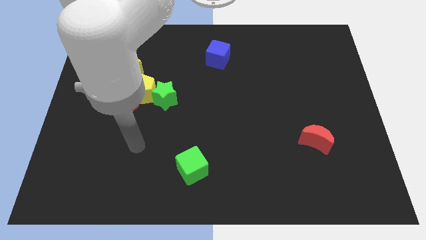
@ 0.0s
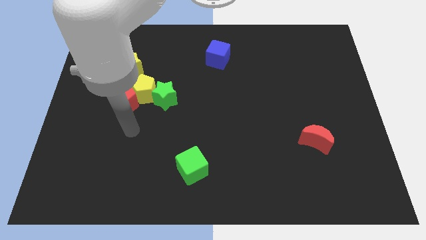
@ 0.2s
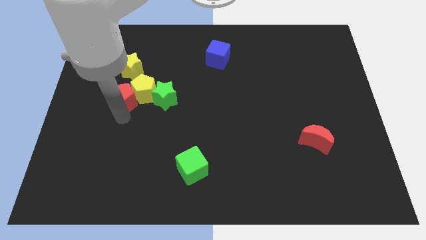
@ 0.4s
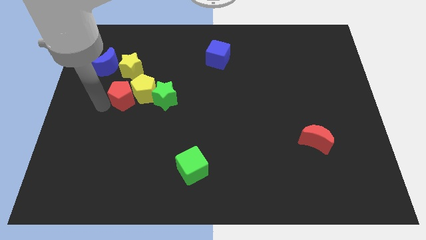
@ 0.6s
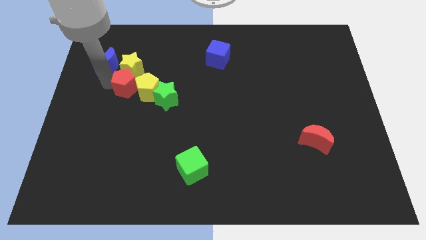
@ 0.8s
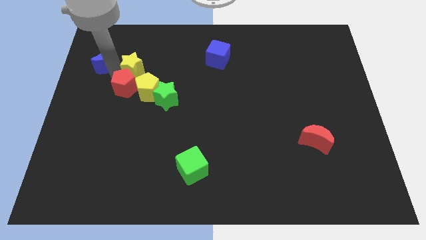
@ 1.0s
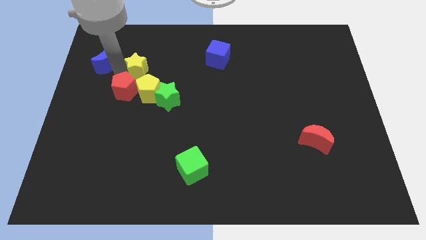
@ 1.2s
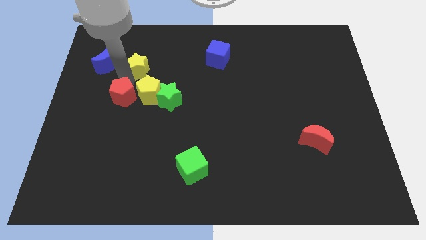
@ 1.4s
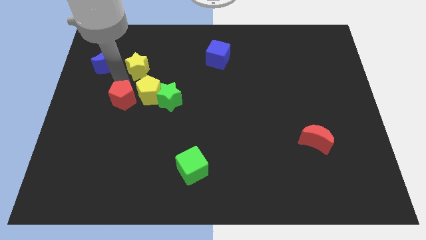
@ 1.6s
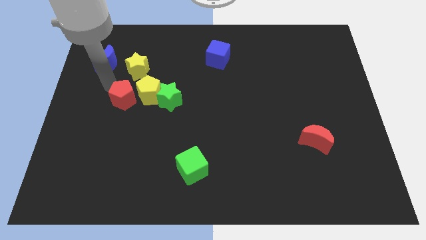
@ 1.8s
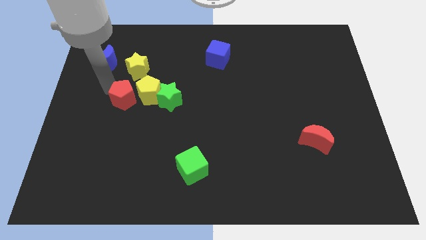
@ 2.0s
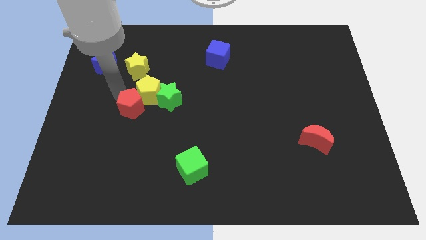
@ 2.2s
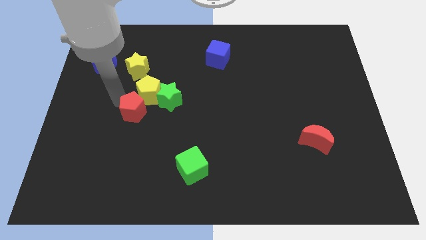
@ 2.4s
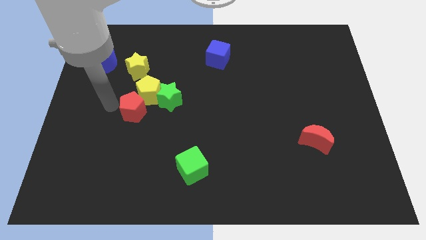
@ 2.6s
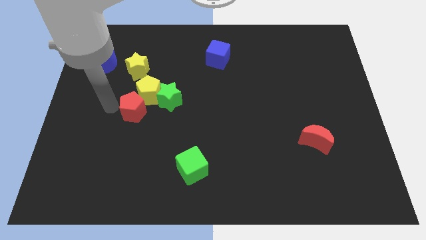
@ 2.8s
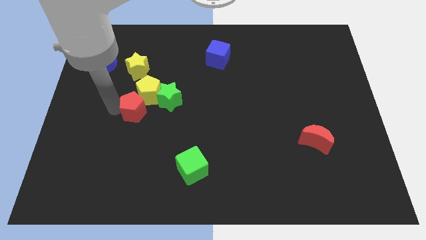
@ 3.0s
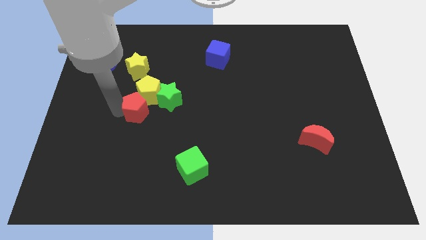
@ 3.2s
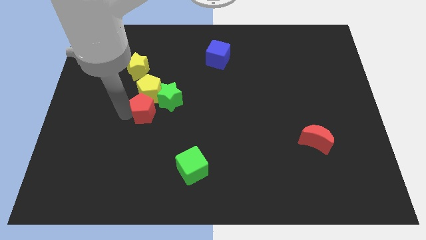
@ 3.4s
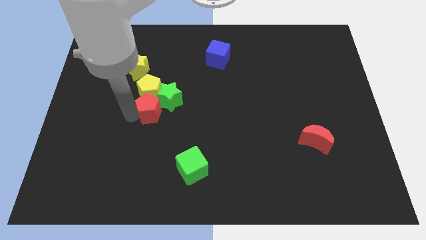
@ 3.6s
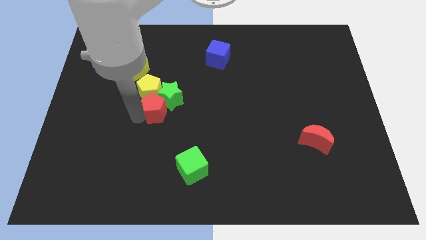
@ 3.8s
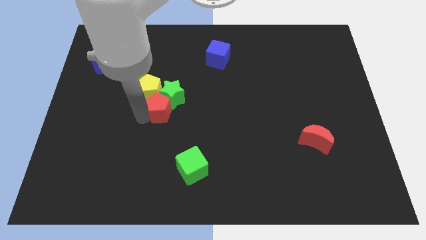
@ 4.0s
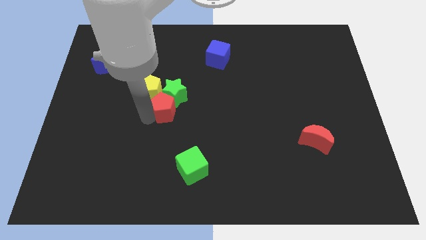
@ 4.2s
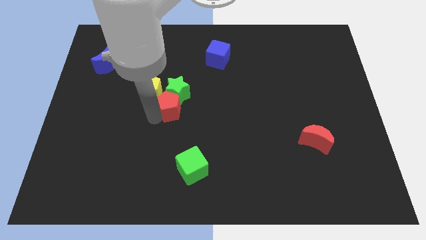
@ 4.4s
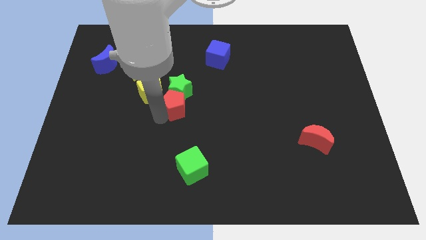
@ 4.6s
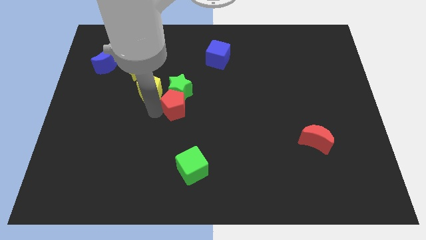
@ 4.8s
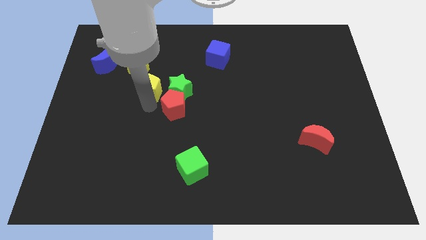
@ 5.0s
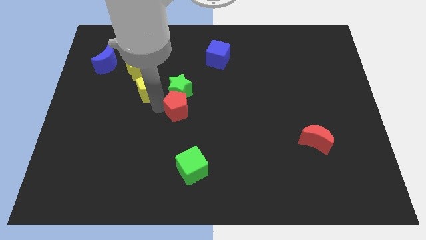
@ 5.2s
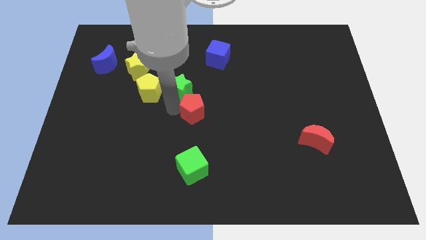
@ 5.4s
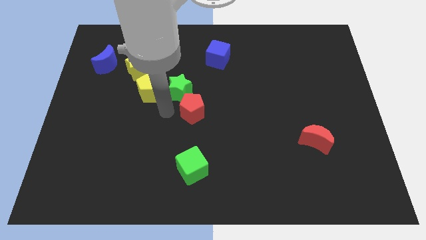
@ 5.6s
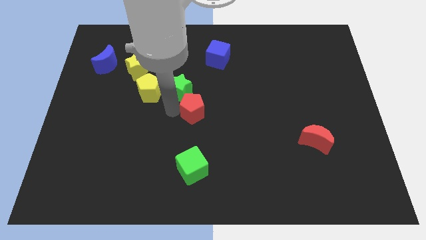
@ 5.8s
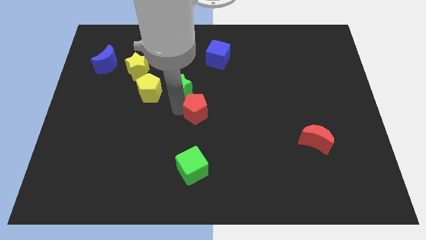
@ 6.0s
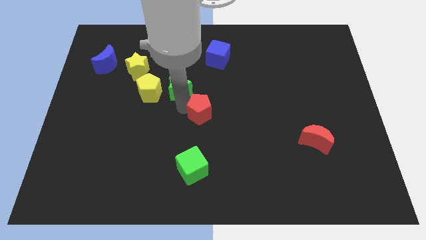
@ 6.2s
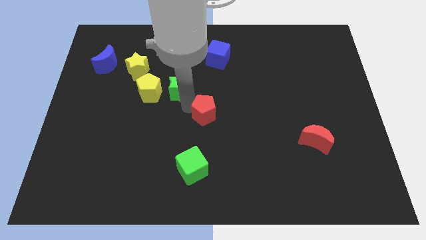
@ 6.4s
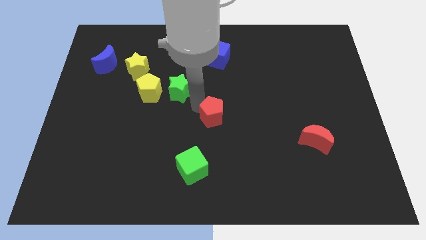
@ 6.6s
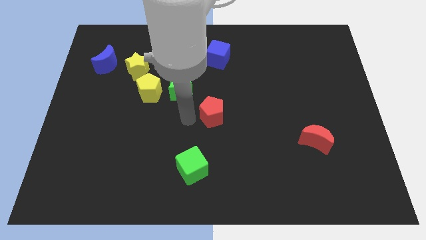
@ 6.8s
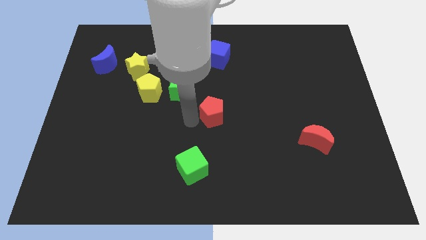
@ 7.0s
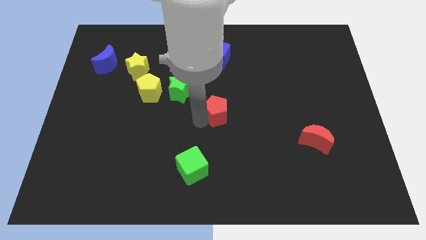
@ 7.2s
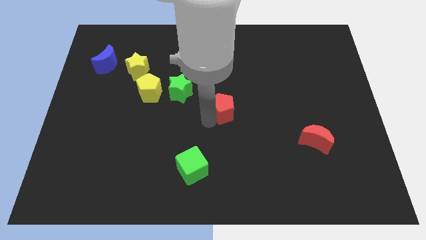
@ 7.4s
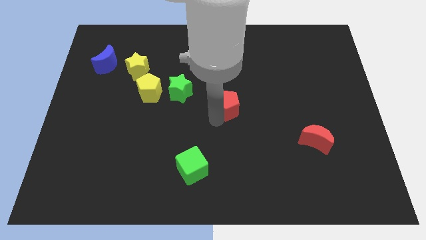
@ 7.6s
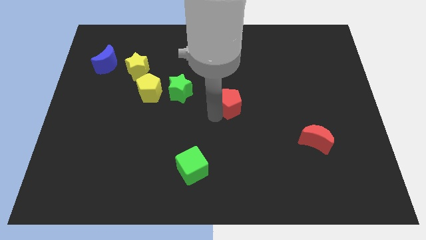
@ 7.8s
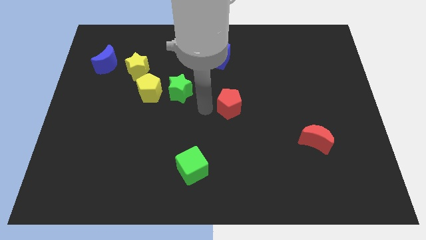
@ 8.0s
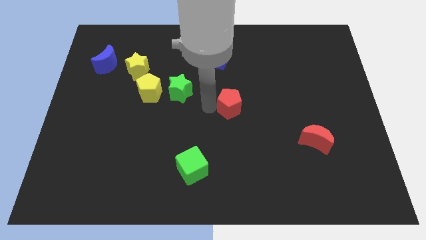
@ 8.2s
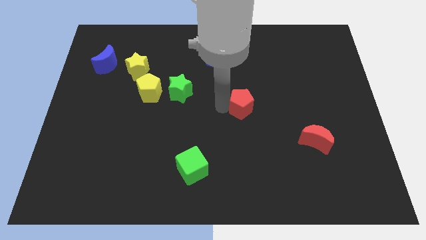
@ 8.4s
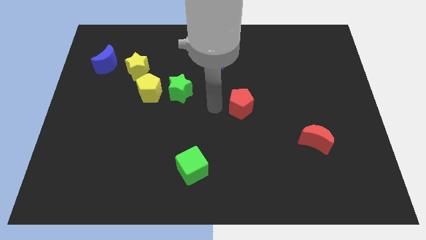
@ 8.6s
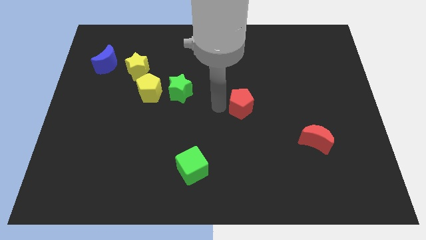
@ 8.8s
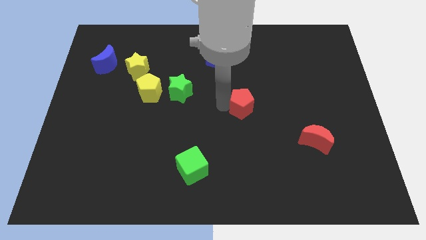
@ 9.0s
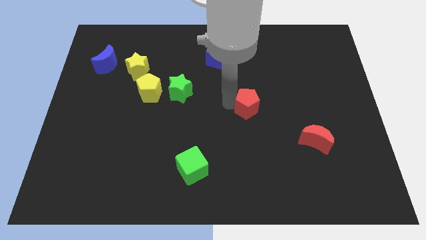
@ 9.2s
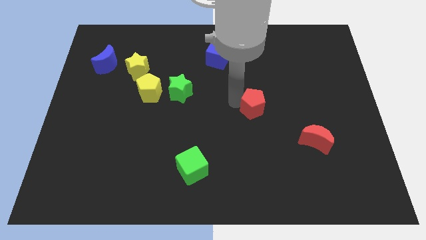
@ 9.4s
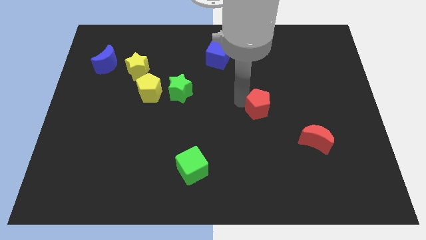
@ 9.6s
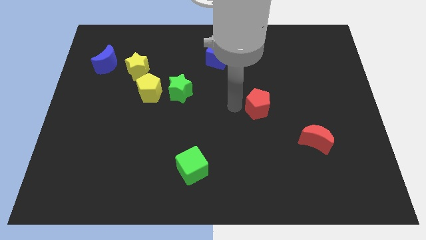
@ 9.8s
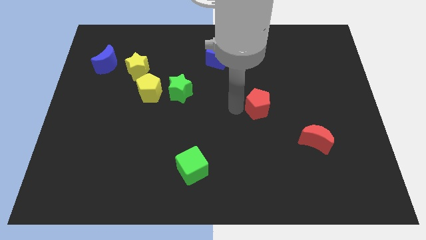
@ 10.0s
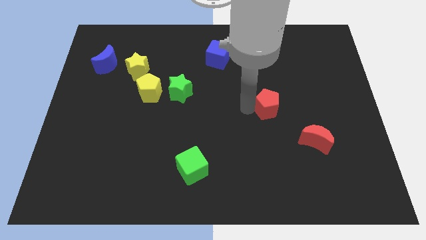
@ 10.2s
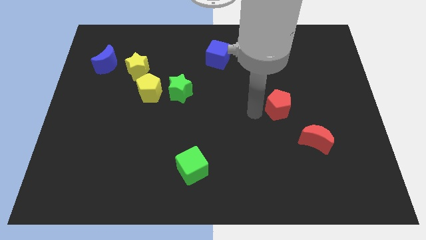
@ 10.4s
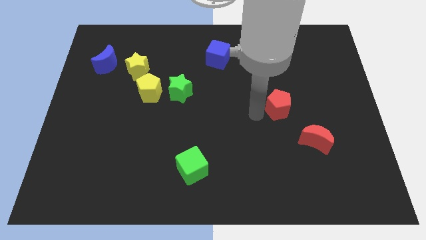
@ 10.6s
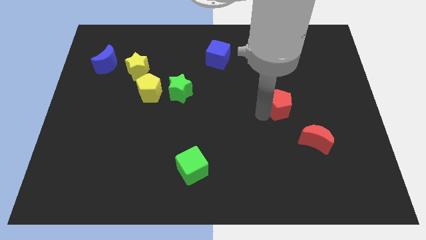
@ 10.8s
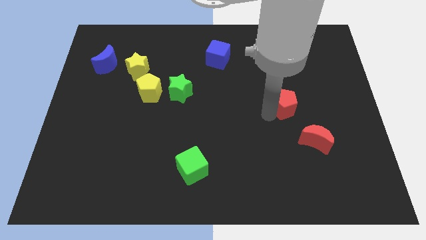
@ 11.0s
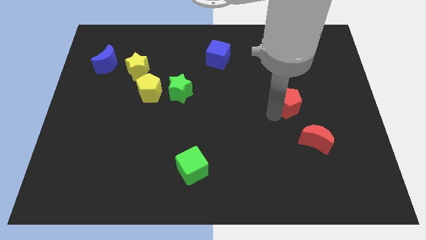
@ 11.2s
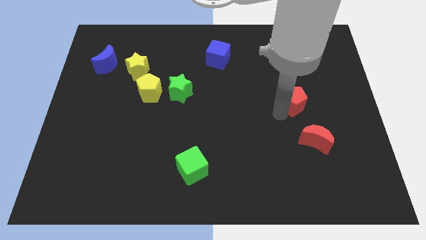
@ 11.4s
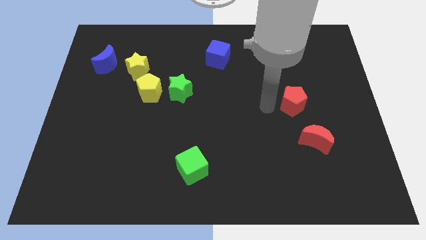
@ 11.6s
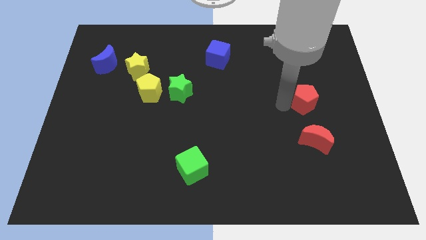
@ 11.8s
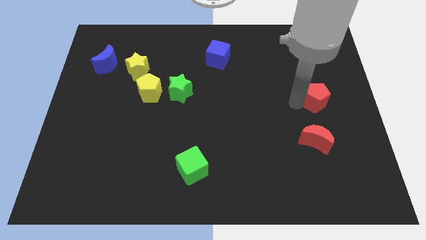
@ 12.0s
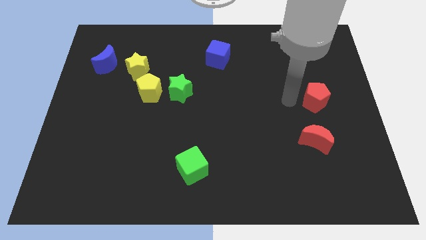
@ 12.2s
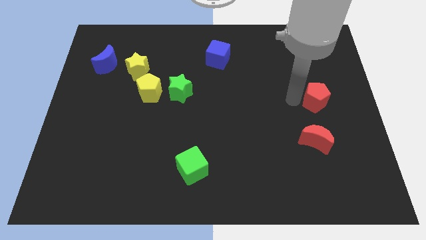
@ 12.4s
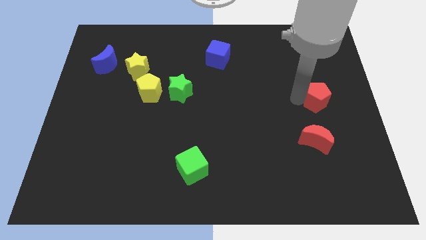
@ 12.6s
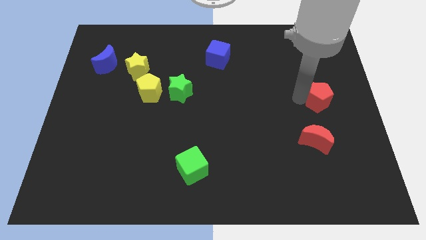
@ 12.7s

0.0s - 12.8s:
put the red pentagon to the center right
